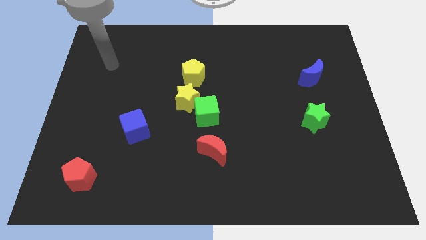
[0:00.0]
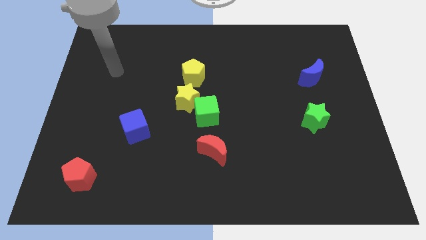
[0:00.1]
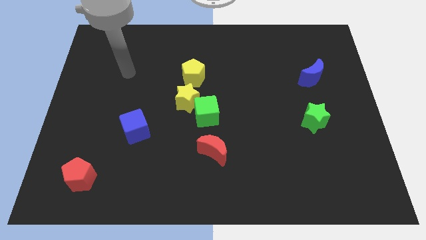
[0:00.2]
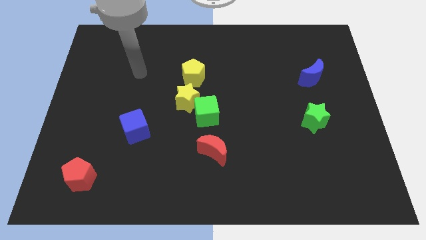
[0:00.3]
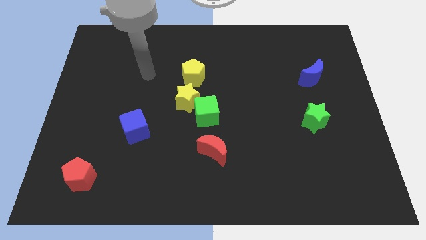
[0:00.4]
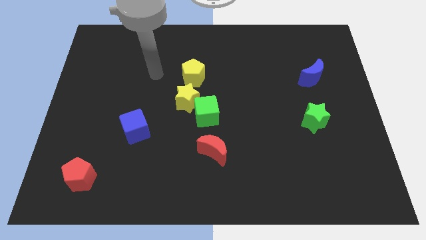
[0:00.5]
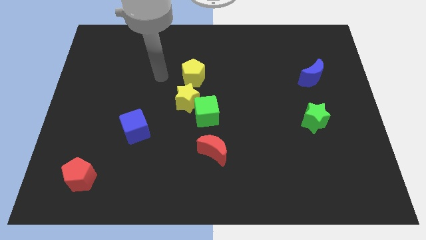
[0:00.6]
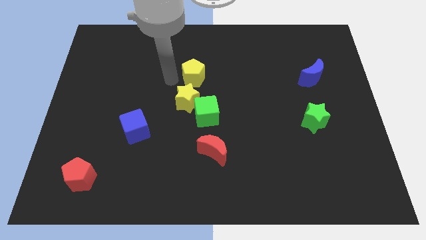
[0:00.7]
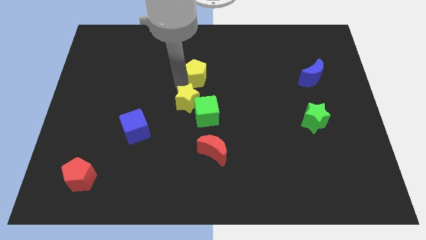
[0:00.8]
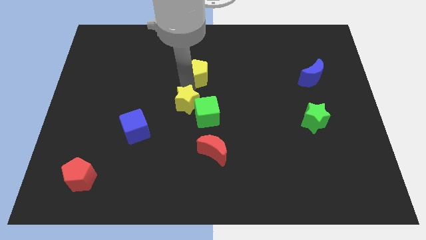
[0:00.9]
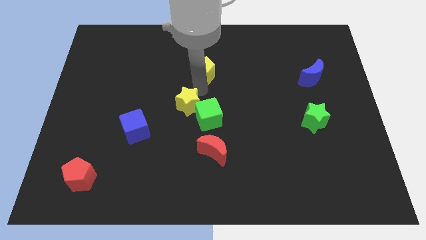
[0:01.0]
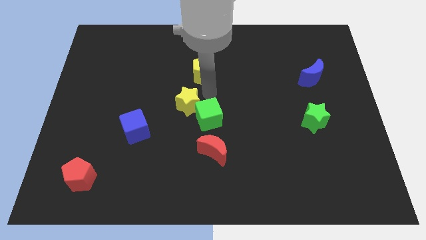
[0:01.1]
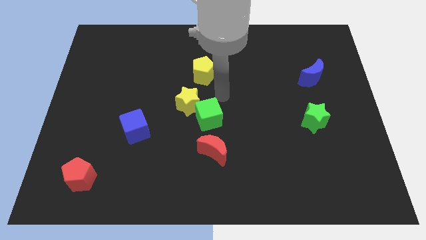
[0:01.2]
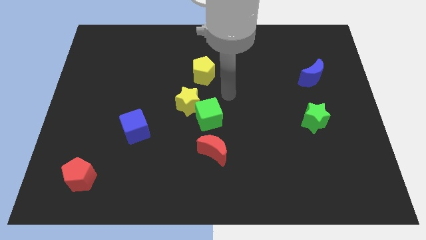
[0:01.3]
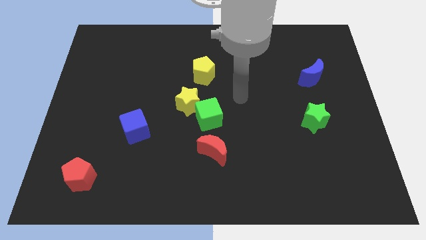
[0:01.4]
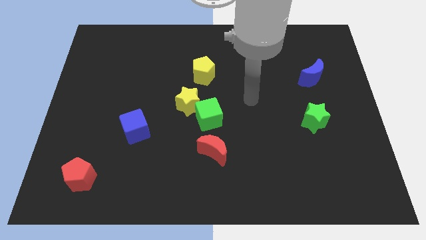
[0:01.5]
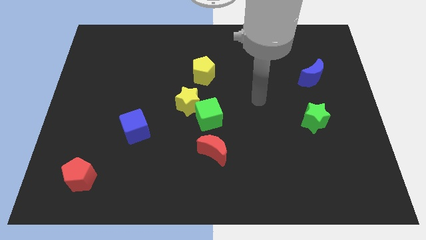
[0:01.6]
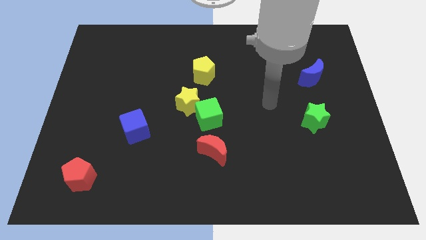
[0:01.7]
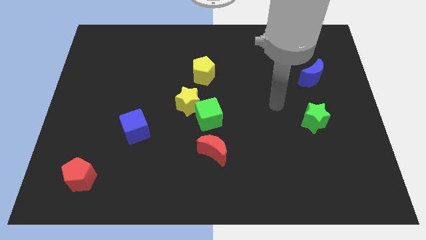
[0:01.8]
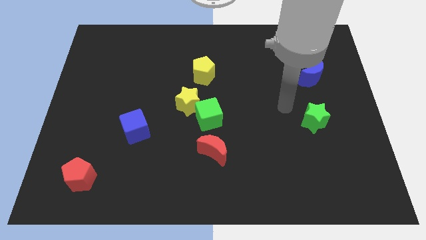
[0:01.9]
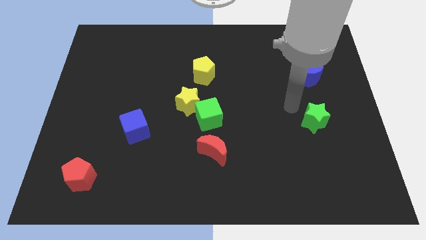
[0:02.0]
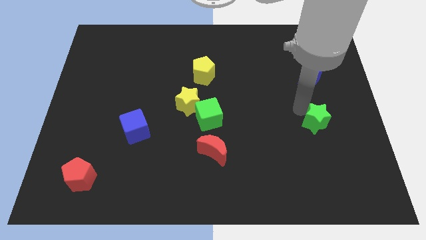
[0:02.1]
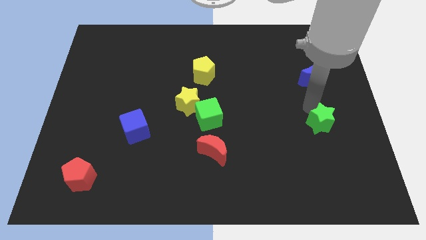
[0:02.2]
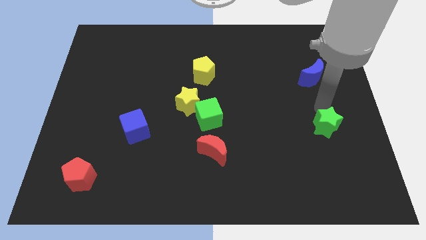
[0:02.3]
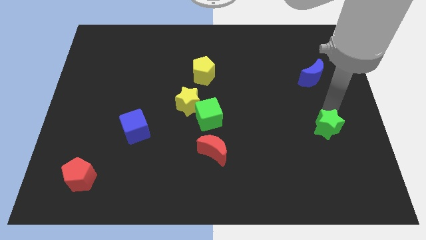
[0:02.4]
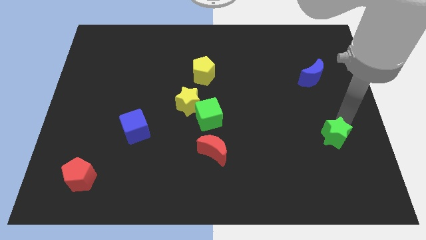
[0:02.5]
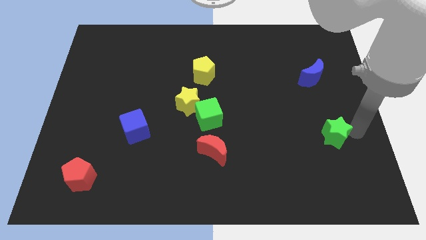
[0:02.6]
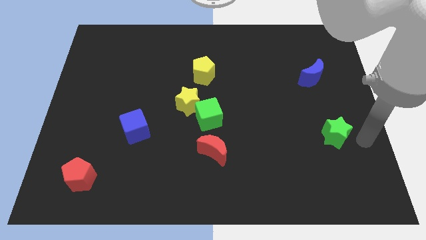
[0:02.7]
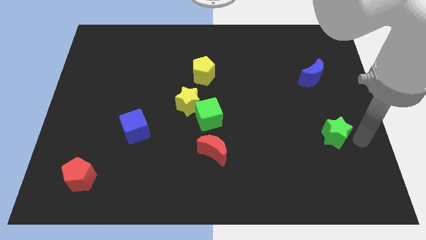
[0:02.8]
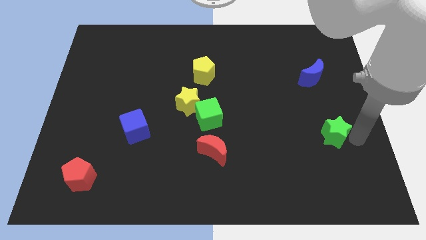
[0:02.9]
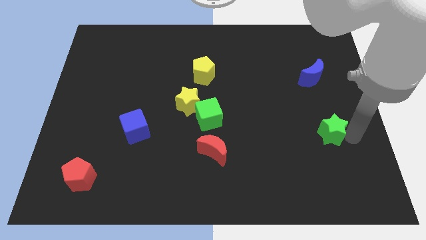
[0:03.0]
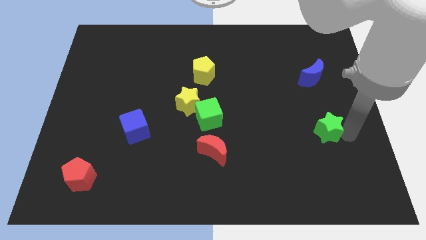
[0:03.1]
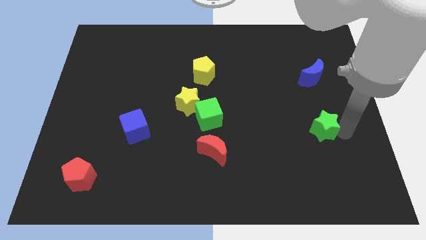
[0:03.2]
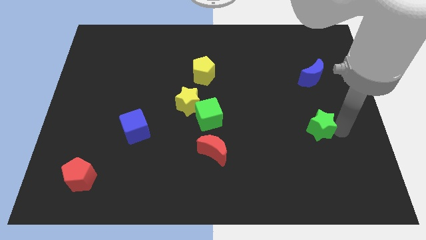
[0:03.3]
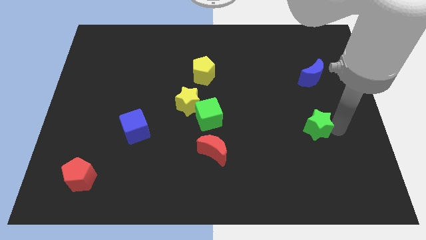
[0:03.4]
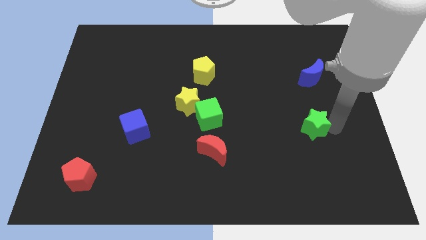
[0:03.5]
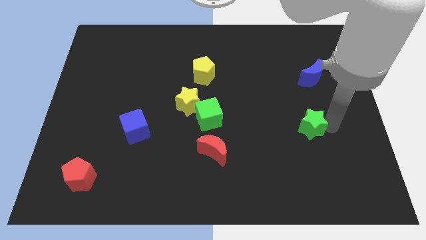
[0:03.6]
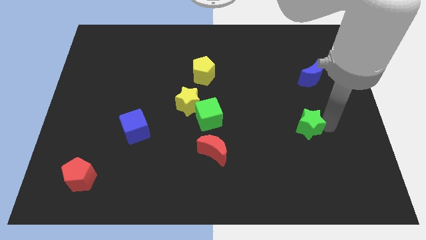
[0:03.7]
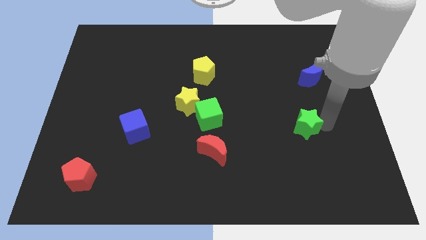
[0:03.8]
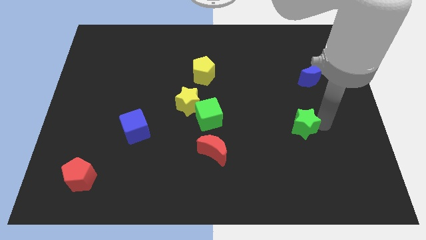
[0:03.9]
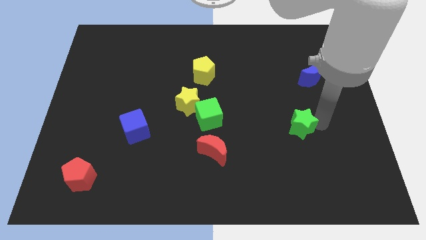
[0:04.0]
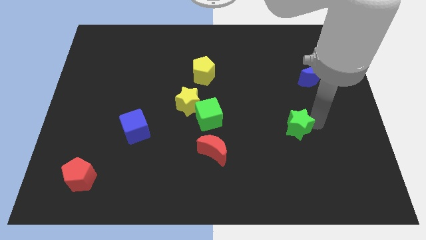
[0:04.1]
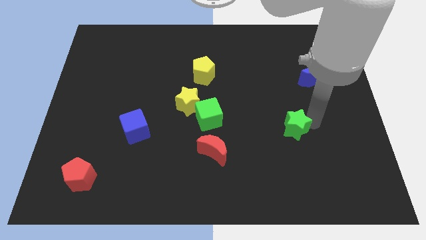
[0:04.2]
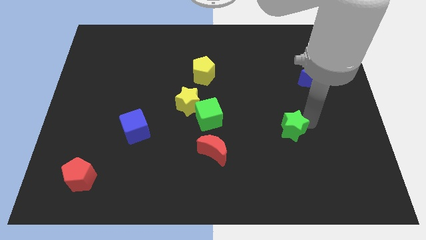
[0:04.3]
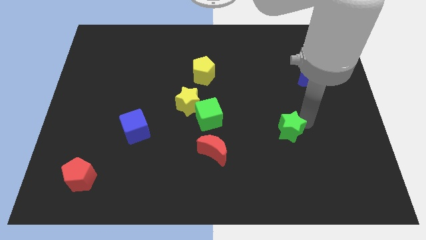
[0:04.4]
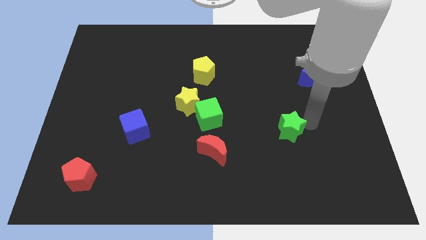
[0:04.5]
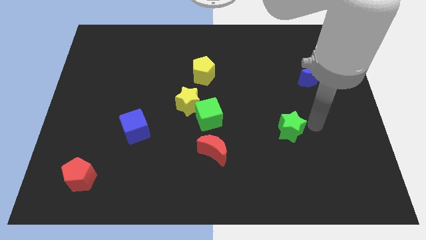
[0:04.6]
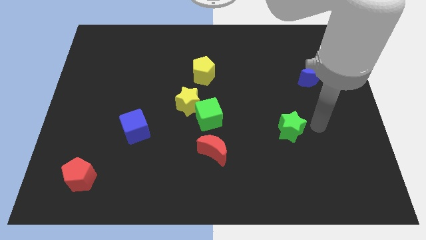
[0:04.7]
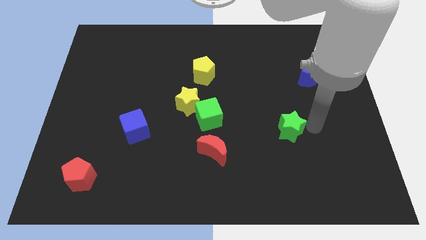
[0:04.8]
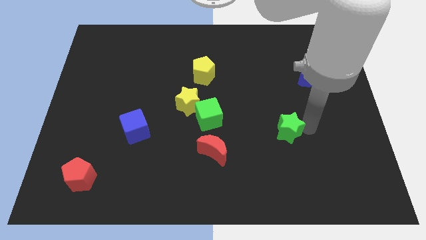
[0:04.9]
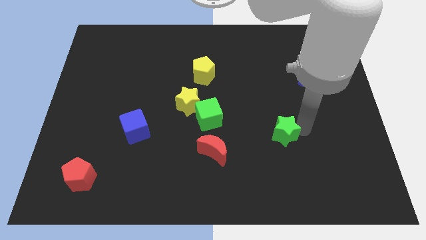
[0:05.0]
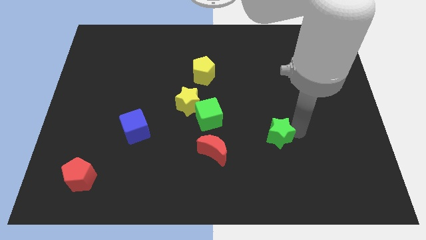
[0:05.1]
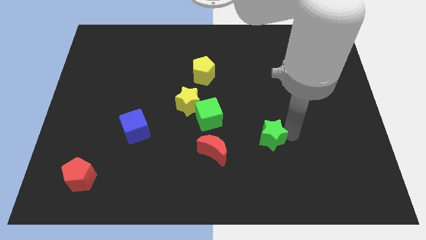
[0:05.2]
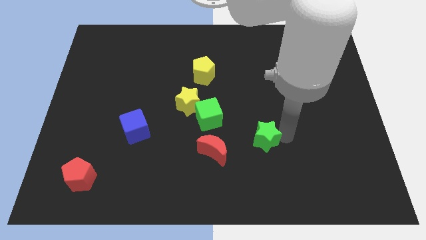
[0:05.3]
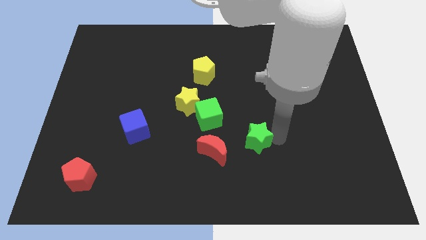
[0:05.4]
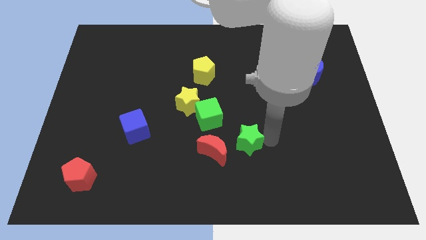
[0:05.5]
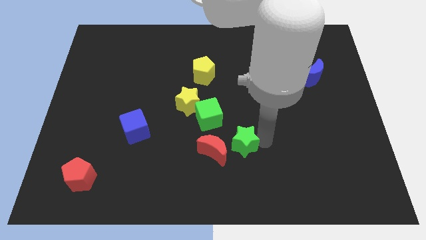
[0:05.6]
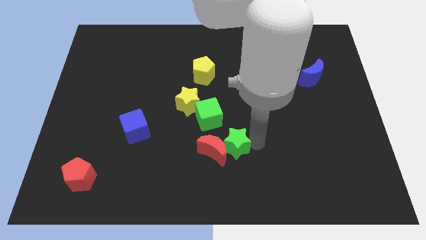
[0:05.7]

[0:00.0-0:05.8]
move the green star towards the red moon
